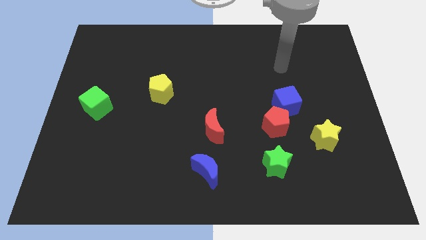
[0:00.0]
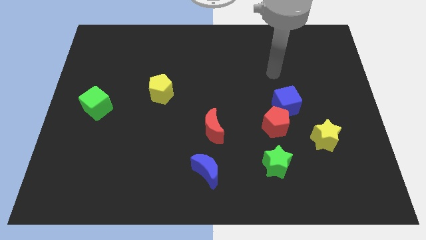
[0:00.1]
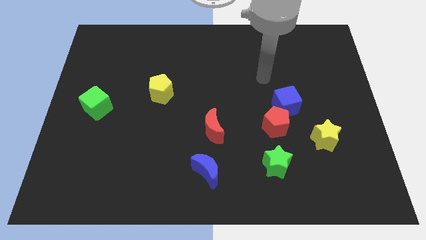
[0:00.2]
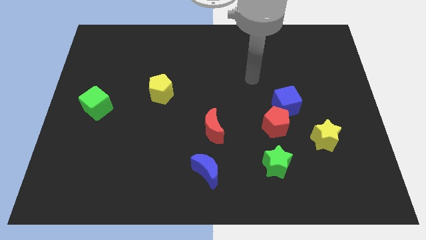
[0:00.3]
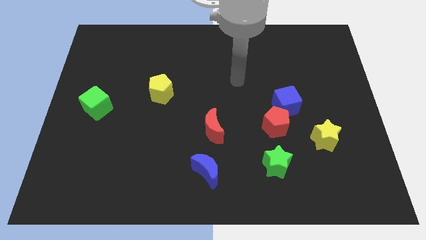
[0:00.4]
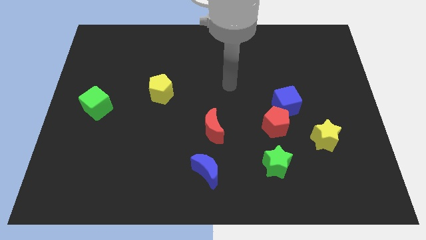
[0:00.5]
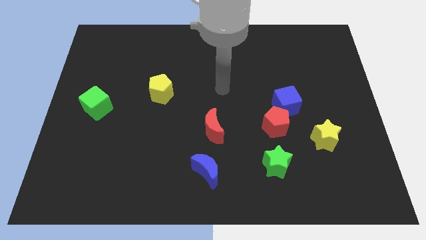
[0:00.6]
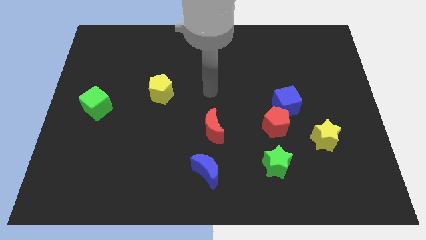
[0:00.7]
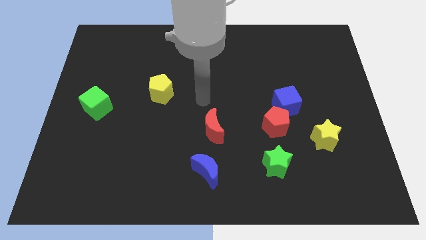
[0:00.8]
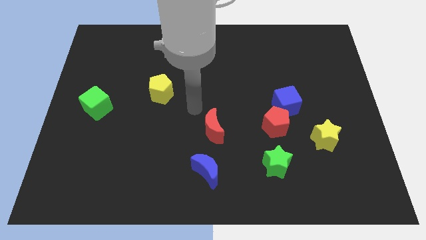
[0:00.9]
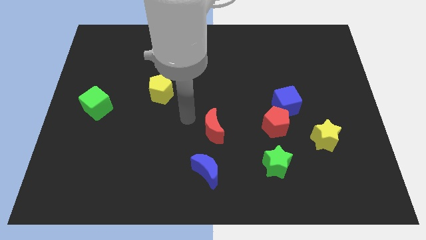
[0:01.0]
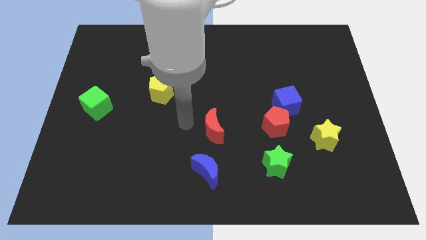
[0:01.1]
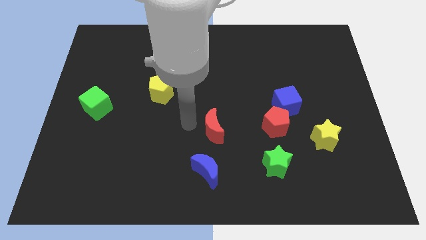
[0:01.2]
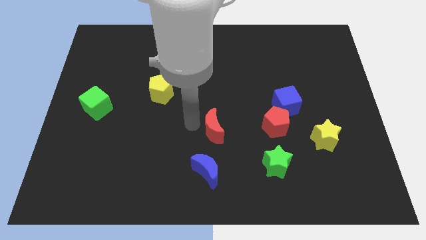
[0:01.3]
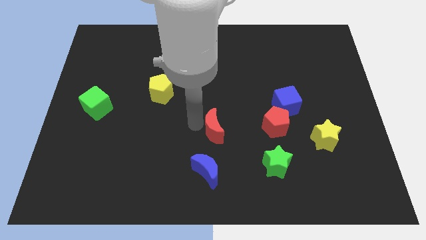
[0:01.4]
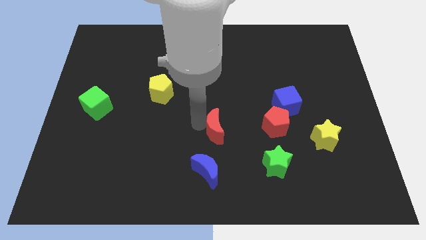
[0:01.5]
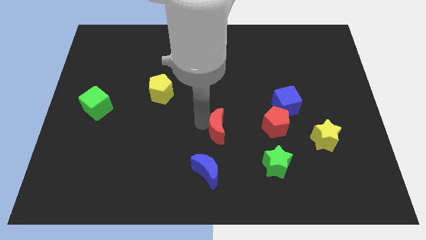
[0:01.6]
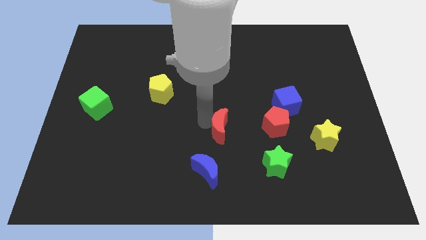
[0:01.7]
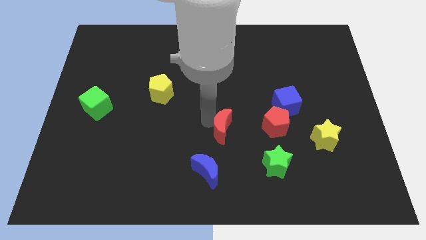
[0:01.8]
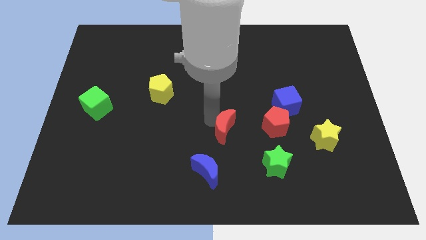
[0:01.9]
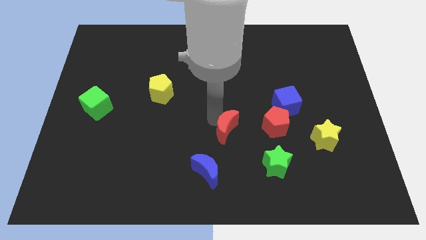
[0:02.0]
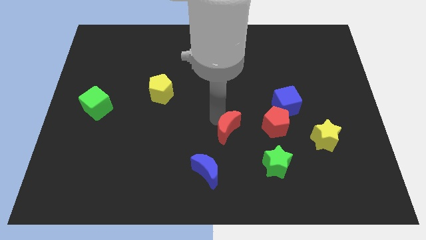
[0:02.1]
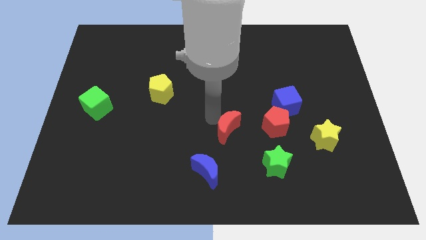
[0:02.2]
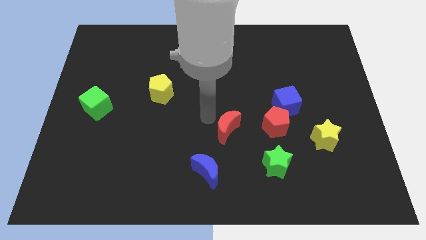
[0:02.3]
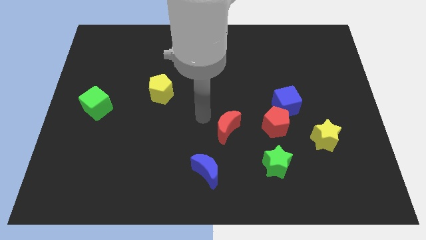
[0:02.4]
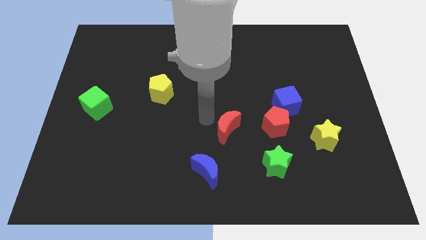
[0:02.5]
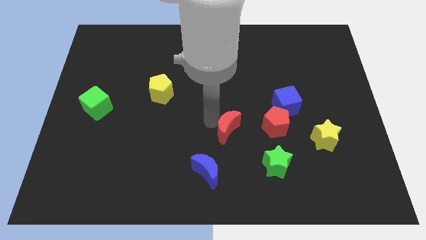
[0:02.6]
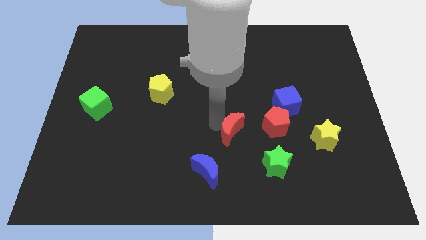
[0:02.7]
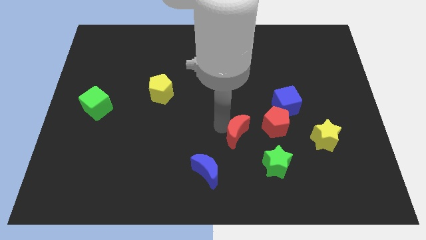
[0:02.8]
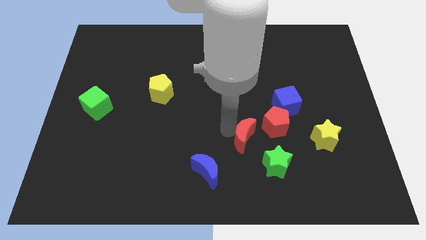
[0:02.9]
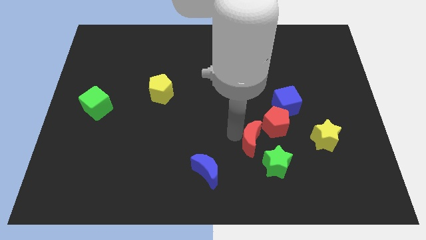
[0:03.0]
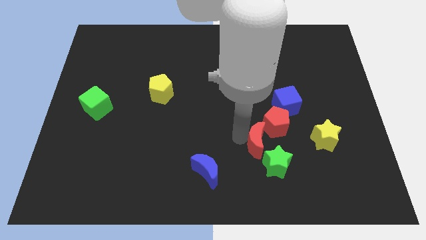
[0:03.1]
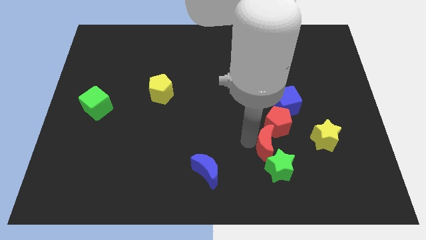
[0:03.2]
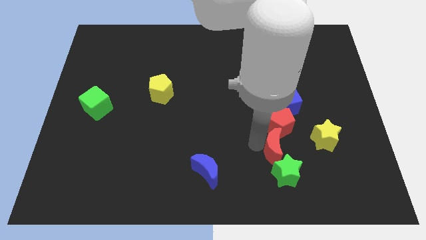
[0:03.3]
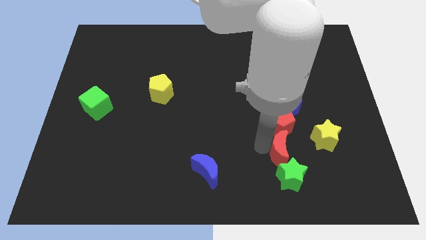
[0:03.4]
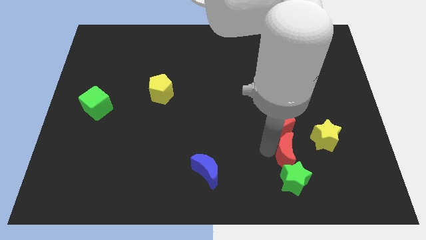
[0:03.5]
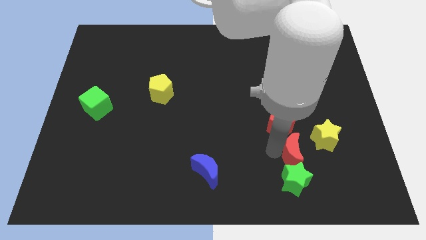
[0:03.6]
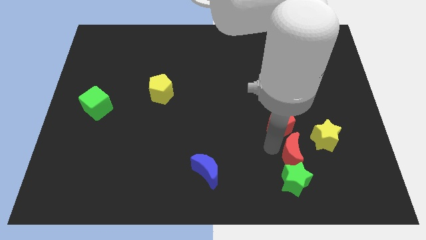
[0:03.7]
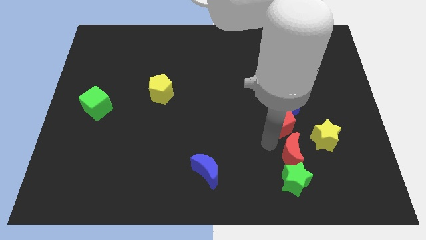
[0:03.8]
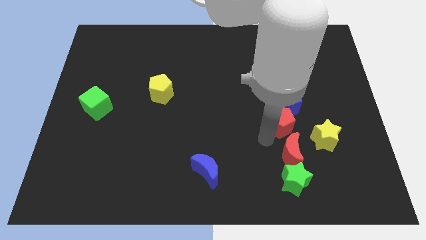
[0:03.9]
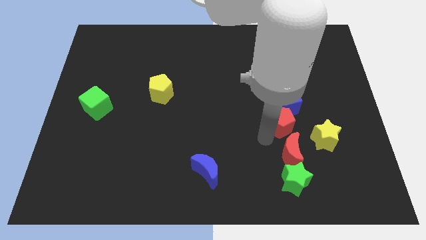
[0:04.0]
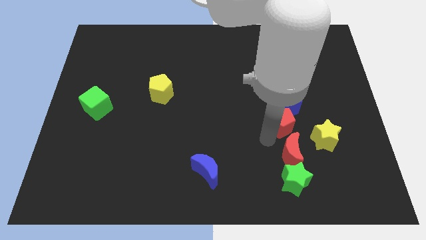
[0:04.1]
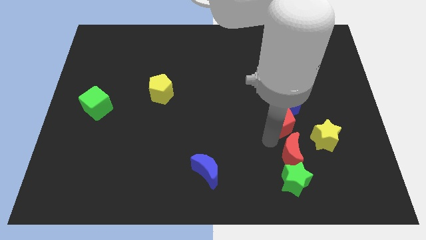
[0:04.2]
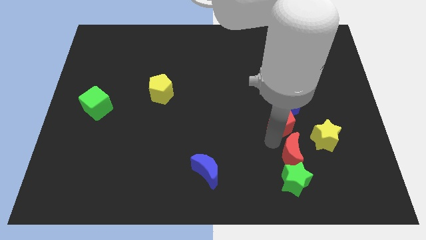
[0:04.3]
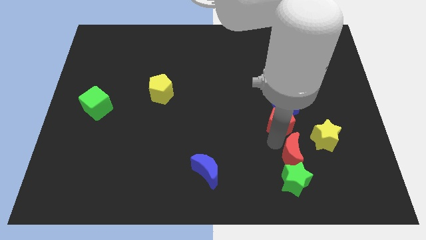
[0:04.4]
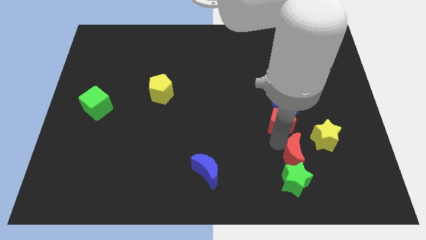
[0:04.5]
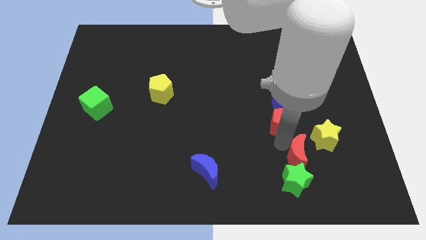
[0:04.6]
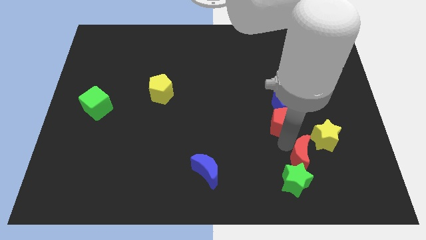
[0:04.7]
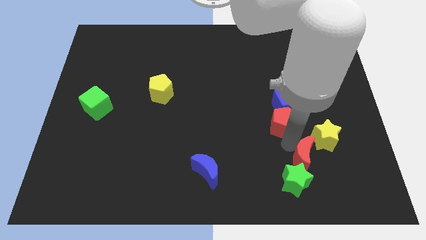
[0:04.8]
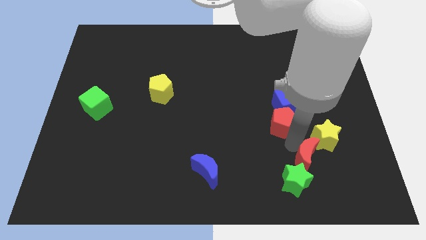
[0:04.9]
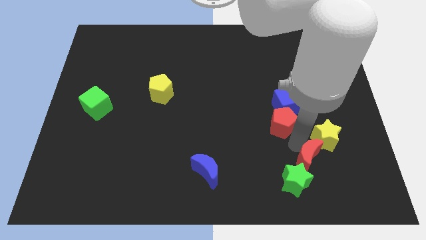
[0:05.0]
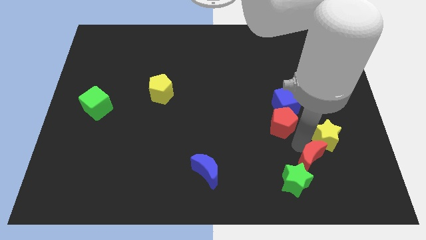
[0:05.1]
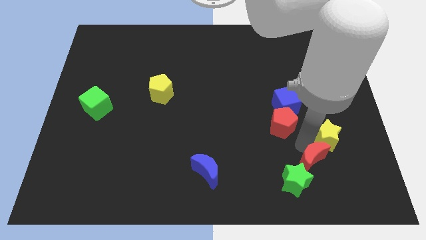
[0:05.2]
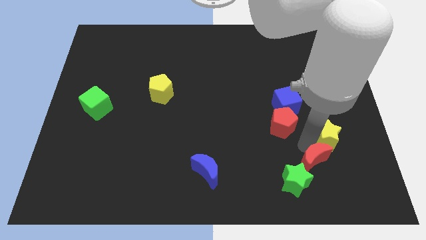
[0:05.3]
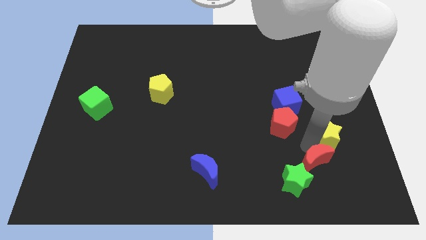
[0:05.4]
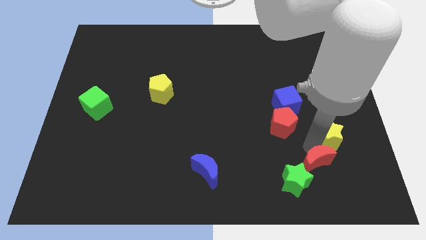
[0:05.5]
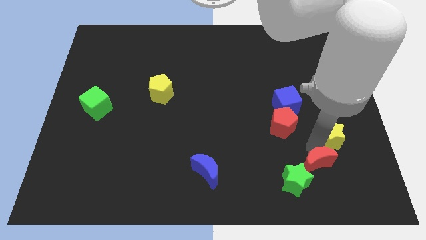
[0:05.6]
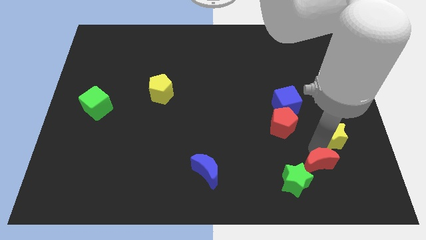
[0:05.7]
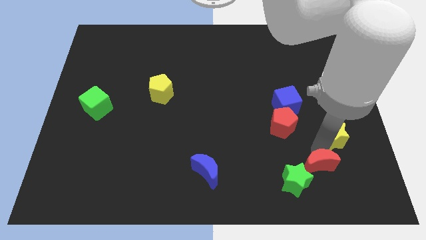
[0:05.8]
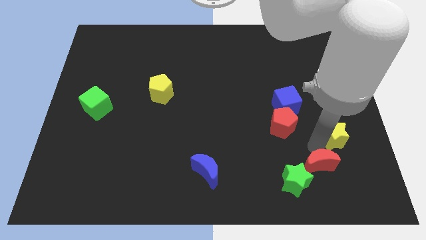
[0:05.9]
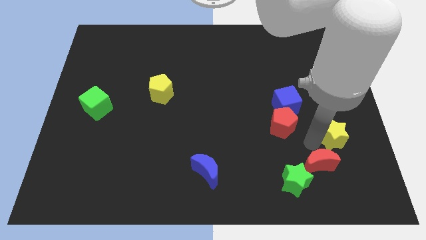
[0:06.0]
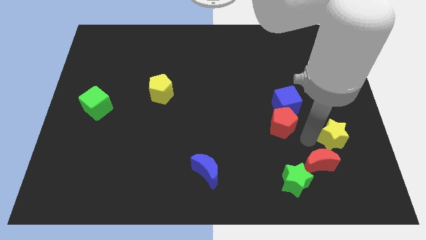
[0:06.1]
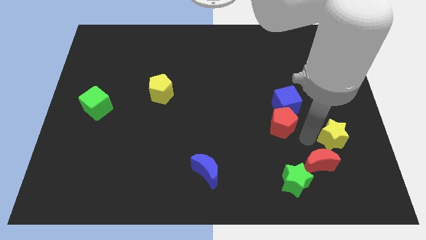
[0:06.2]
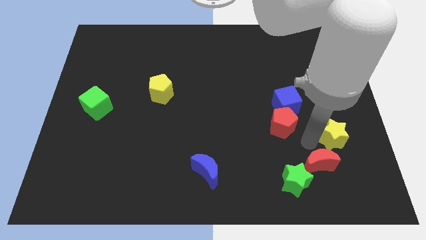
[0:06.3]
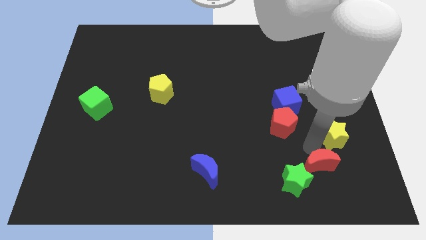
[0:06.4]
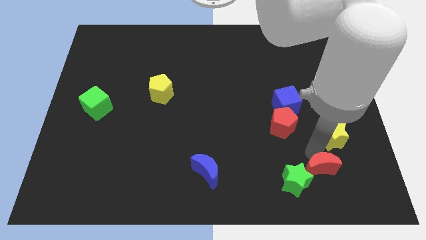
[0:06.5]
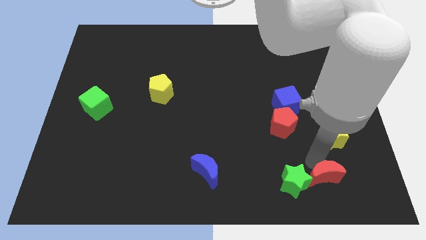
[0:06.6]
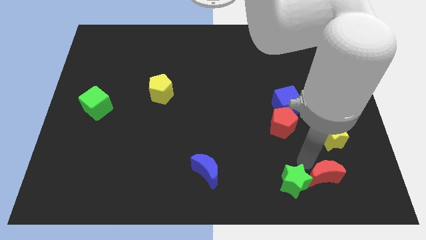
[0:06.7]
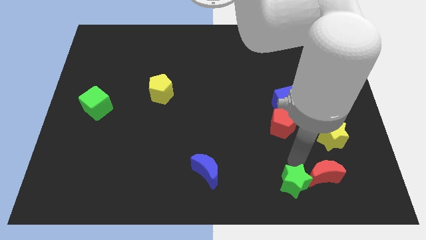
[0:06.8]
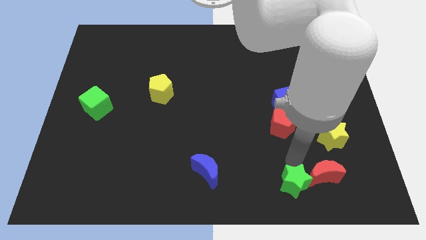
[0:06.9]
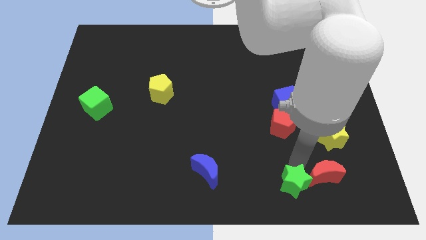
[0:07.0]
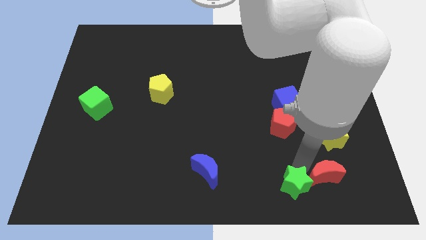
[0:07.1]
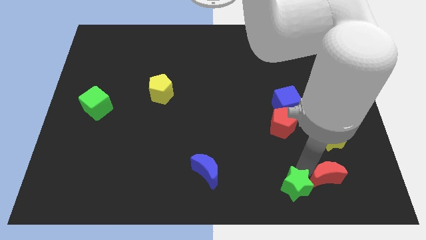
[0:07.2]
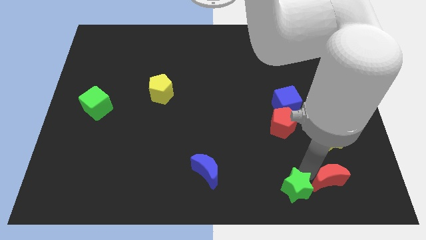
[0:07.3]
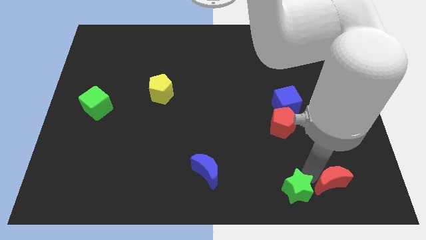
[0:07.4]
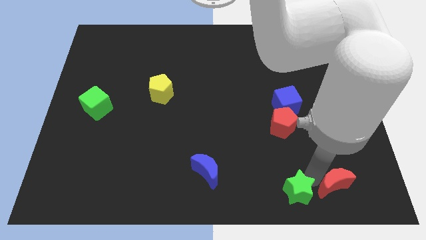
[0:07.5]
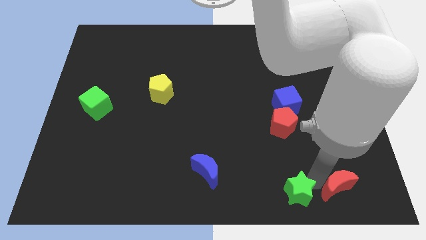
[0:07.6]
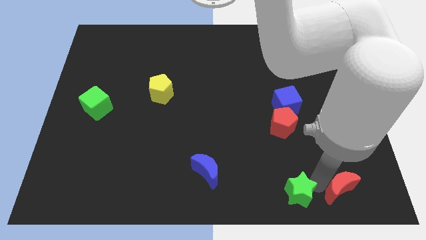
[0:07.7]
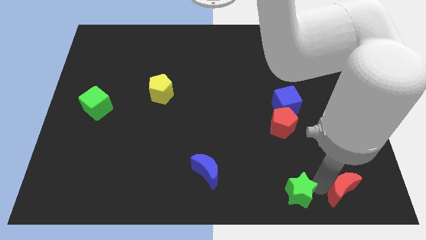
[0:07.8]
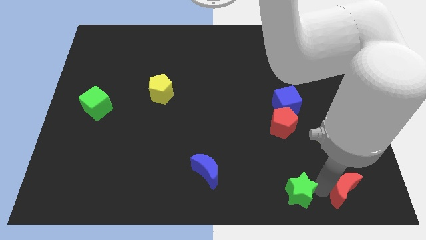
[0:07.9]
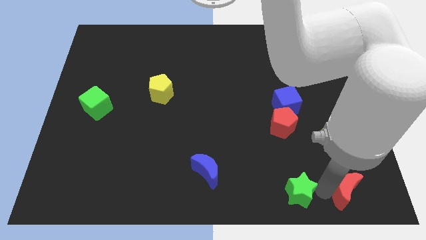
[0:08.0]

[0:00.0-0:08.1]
move the red moon to the bottom right of the board
